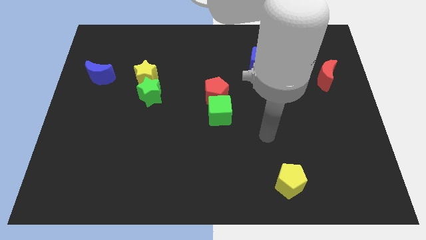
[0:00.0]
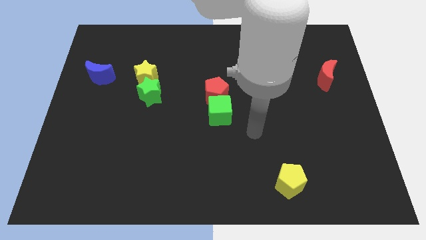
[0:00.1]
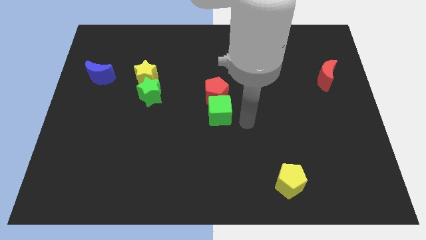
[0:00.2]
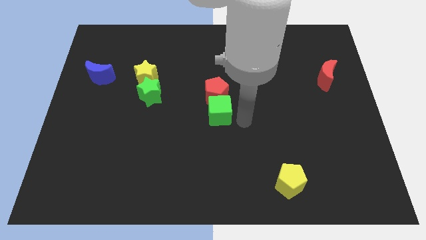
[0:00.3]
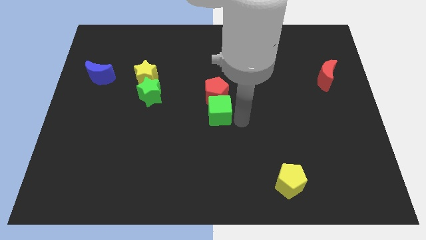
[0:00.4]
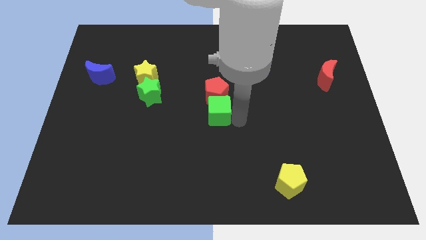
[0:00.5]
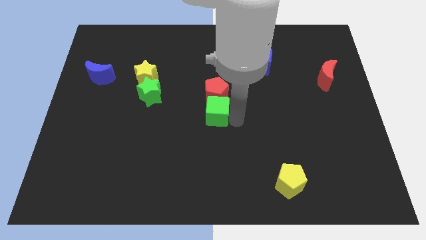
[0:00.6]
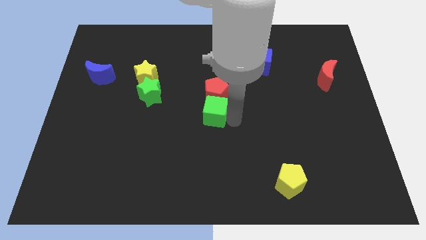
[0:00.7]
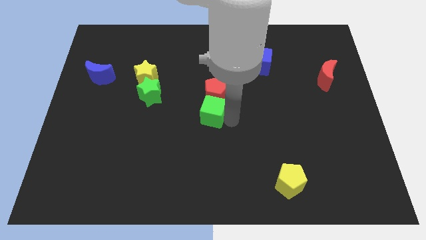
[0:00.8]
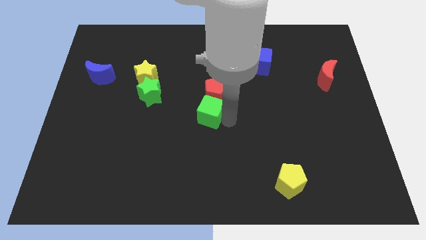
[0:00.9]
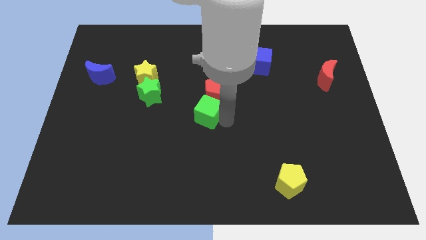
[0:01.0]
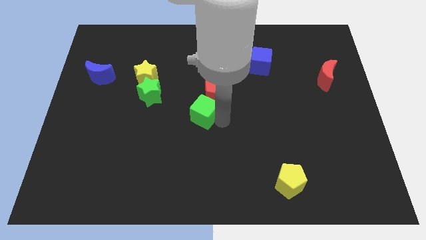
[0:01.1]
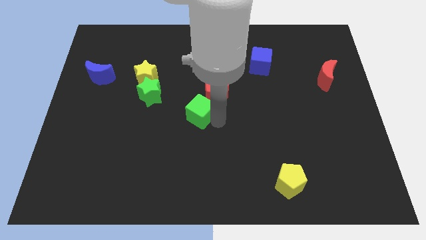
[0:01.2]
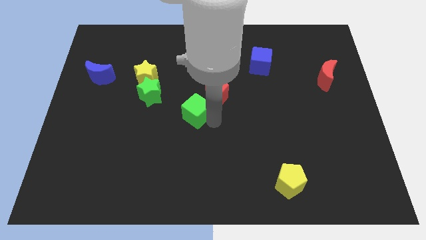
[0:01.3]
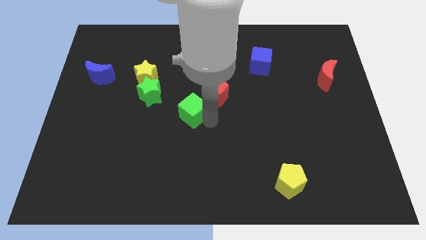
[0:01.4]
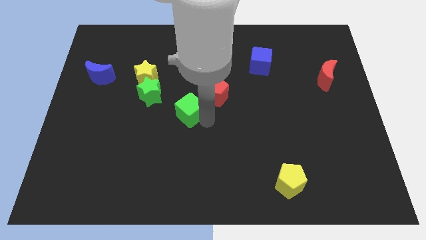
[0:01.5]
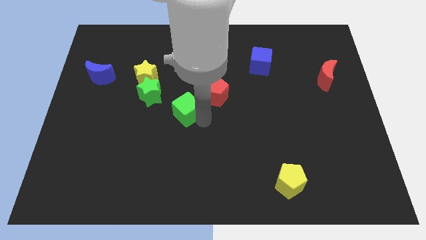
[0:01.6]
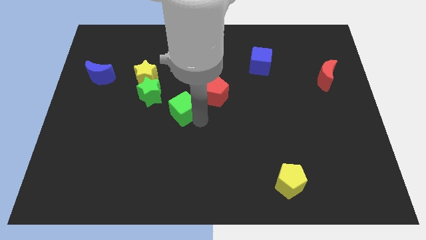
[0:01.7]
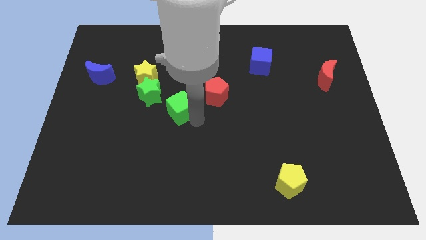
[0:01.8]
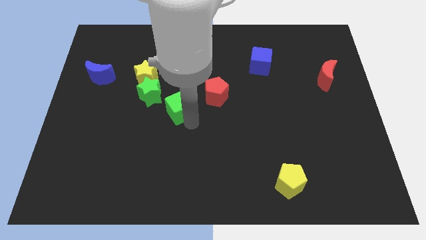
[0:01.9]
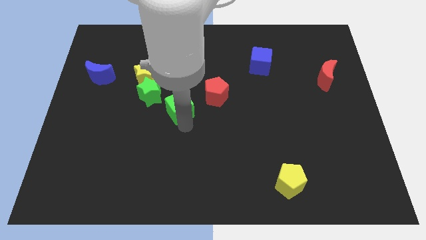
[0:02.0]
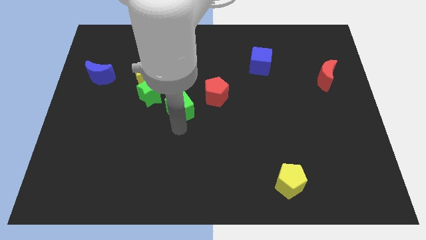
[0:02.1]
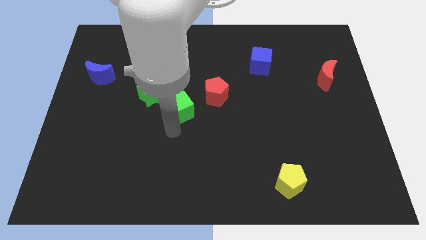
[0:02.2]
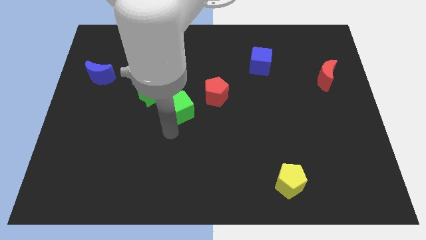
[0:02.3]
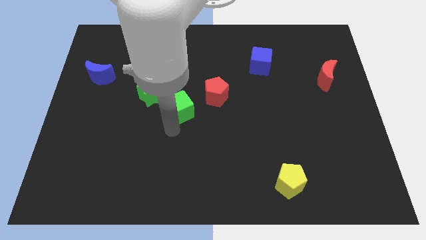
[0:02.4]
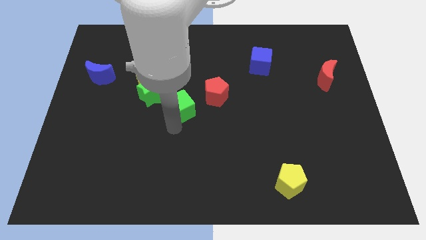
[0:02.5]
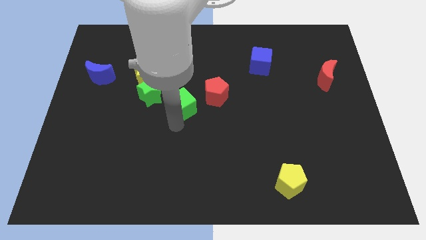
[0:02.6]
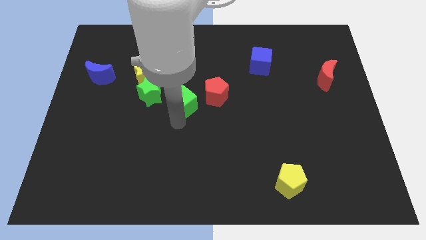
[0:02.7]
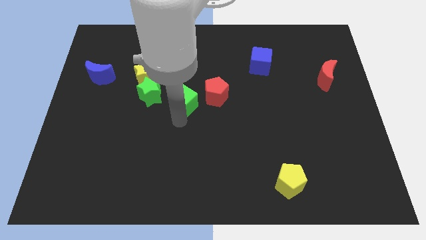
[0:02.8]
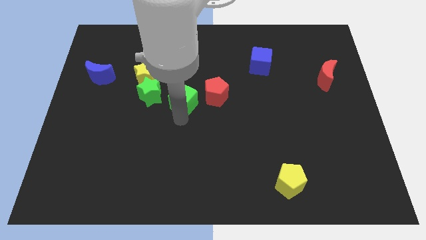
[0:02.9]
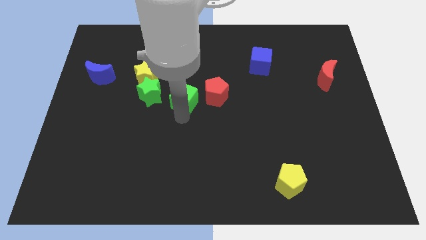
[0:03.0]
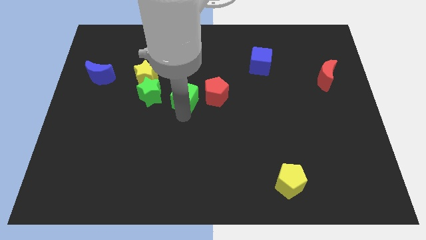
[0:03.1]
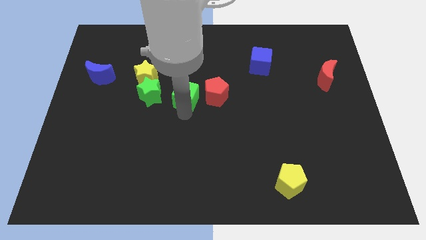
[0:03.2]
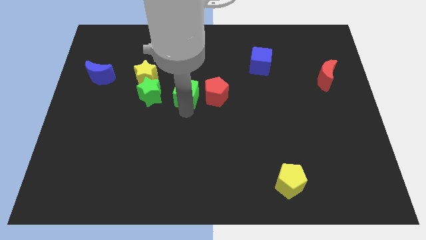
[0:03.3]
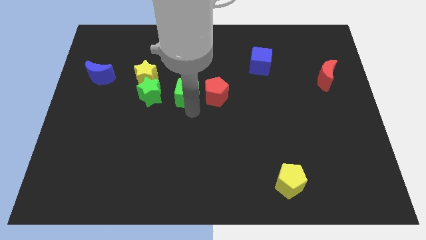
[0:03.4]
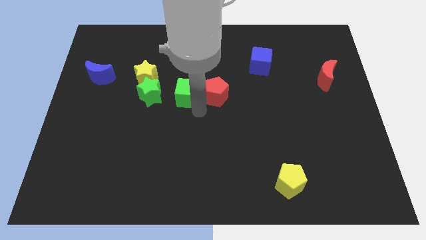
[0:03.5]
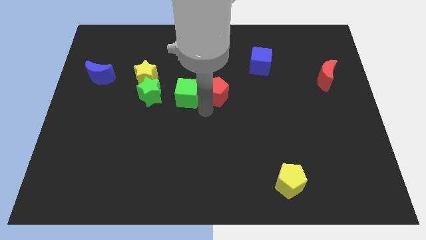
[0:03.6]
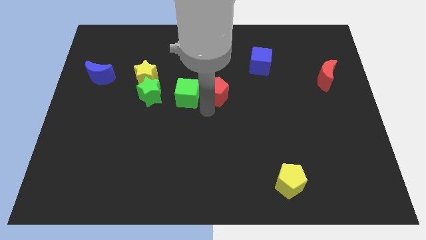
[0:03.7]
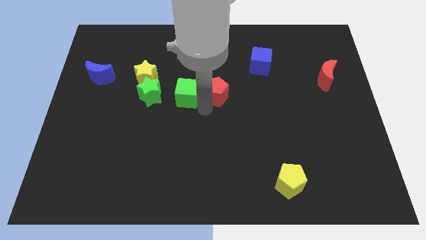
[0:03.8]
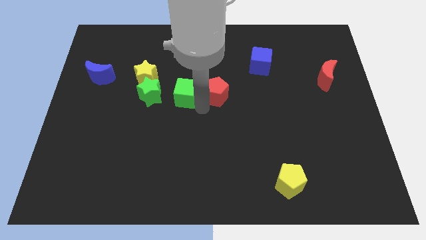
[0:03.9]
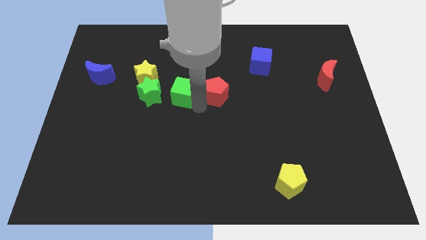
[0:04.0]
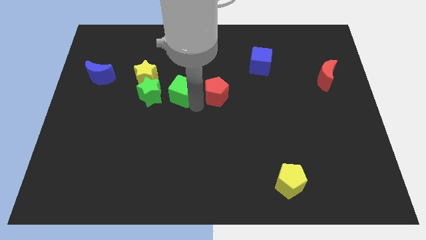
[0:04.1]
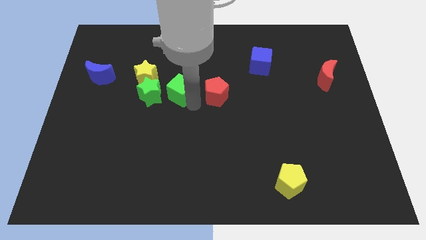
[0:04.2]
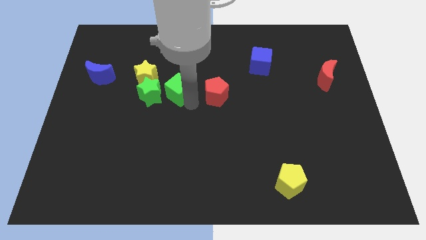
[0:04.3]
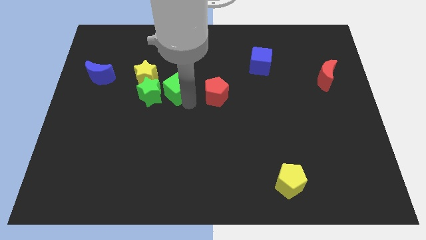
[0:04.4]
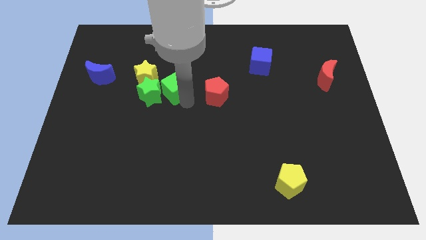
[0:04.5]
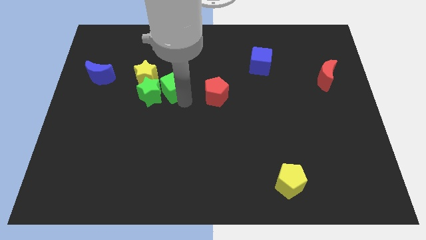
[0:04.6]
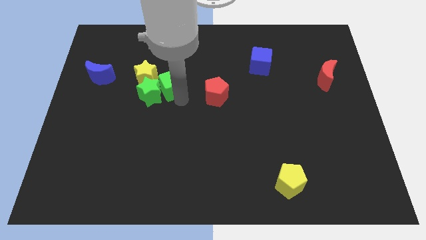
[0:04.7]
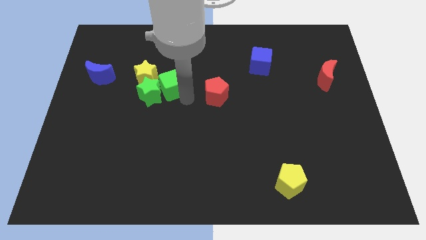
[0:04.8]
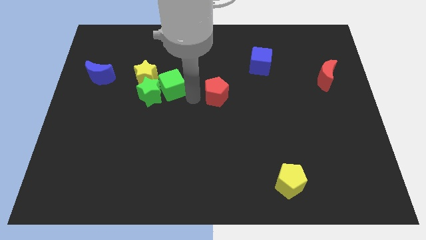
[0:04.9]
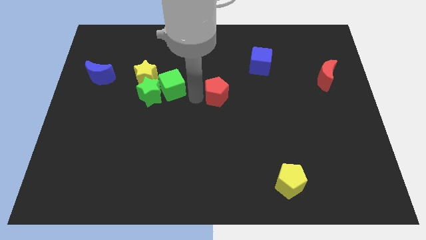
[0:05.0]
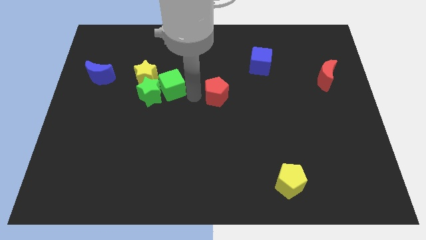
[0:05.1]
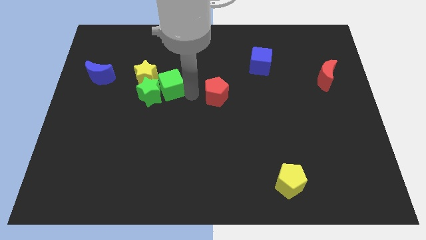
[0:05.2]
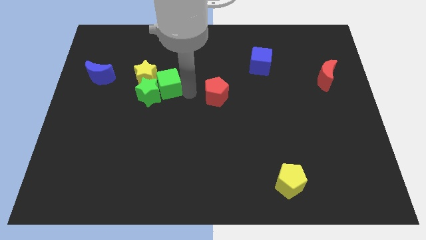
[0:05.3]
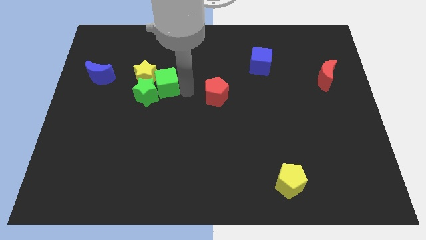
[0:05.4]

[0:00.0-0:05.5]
slide the green cube towards the yellow star

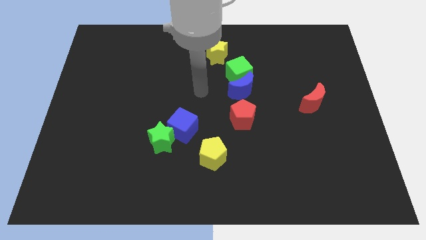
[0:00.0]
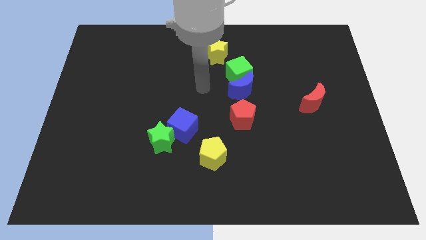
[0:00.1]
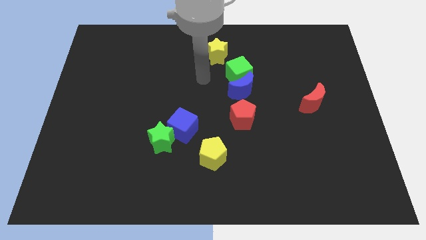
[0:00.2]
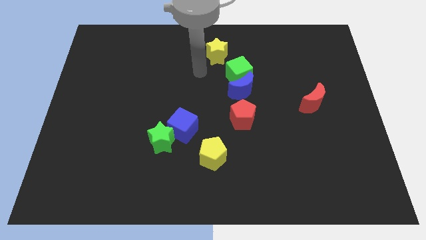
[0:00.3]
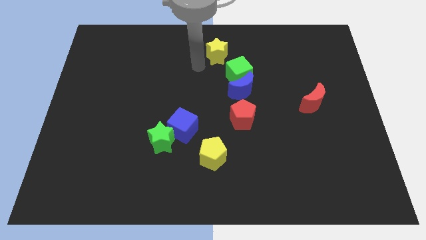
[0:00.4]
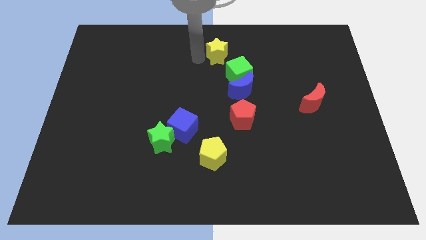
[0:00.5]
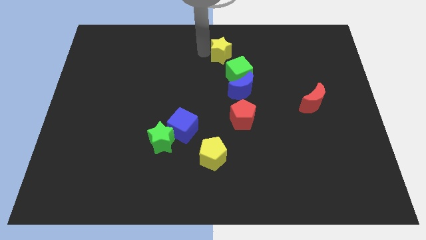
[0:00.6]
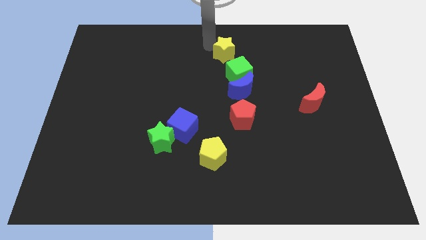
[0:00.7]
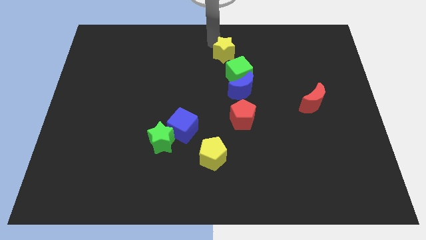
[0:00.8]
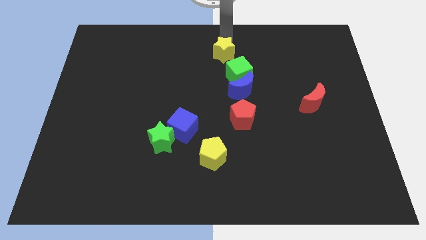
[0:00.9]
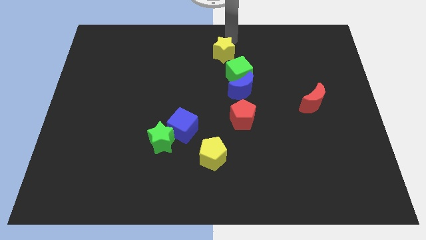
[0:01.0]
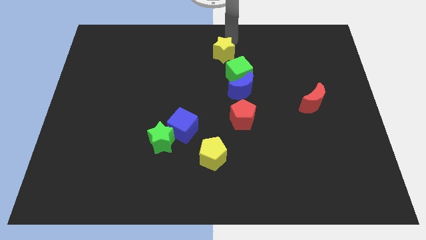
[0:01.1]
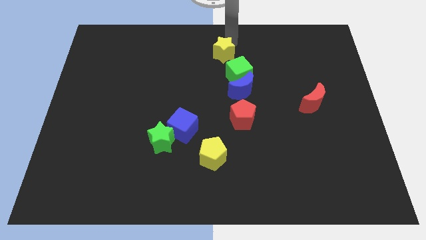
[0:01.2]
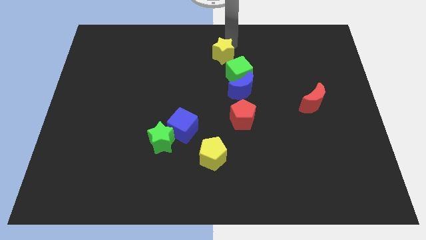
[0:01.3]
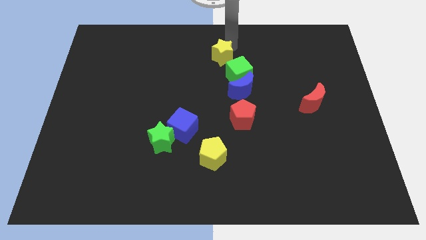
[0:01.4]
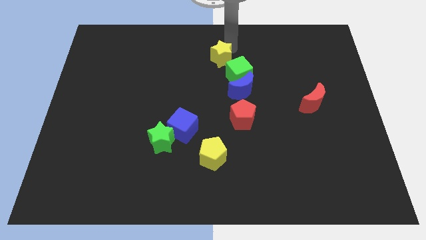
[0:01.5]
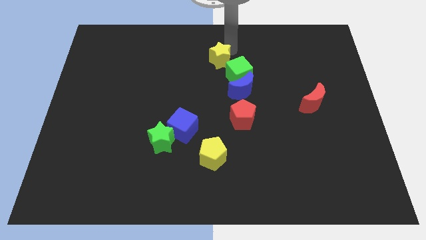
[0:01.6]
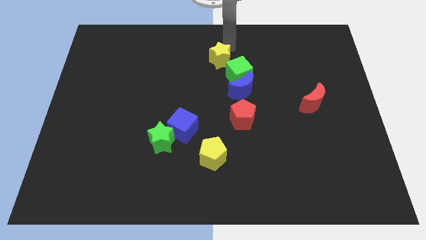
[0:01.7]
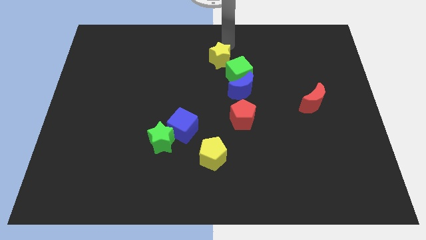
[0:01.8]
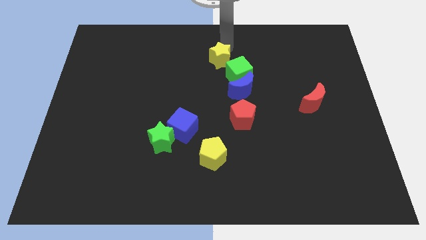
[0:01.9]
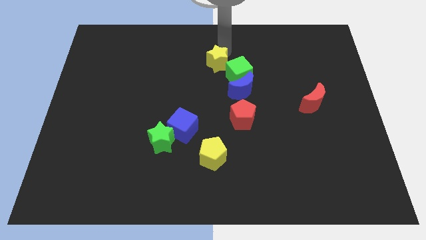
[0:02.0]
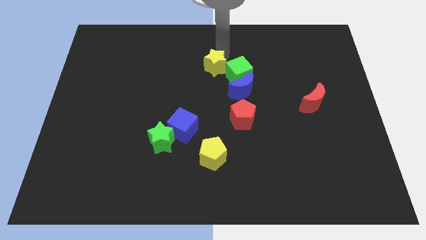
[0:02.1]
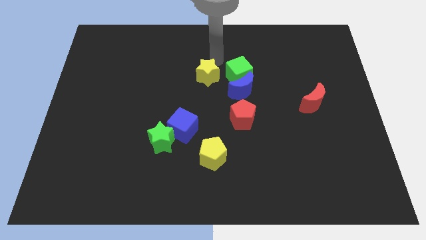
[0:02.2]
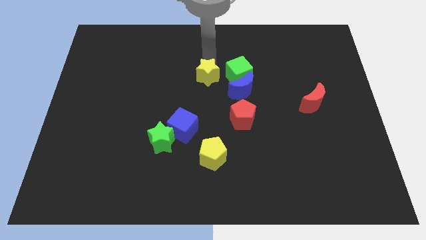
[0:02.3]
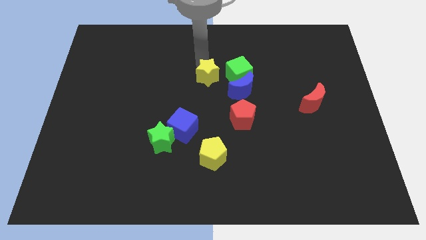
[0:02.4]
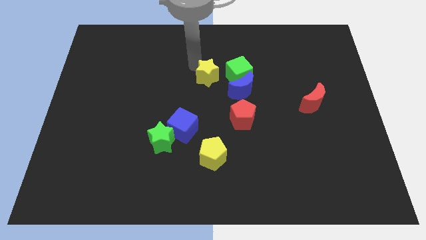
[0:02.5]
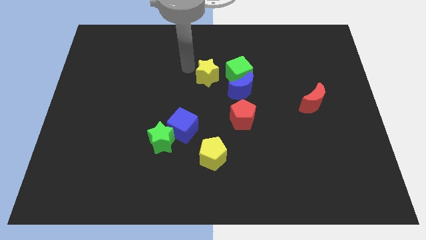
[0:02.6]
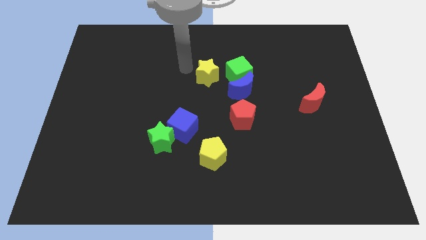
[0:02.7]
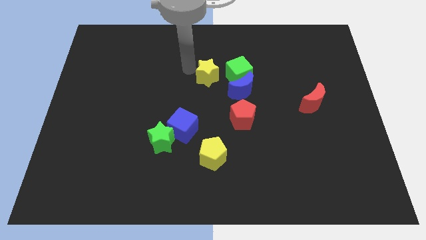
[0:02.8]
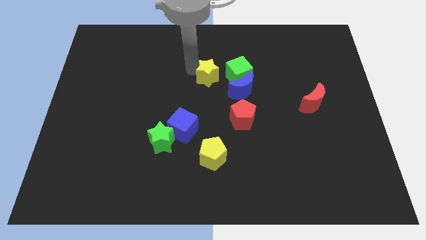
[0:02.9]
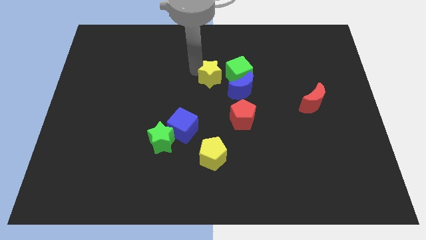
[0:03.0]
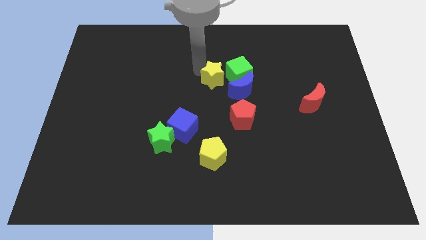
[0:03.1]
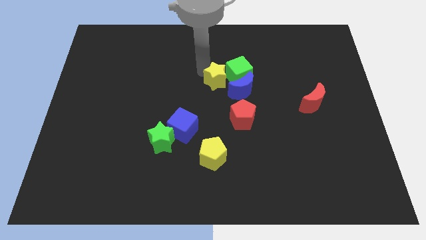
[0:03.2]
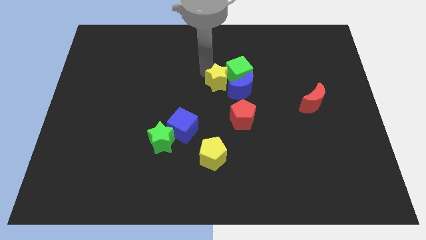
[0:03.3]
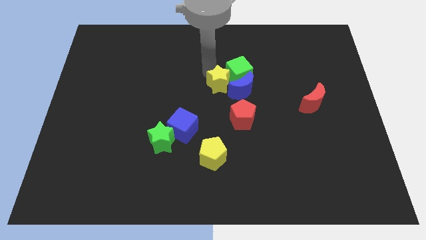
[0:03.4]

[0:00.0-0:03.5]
put the yellow star towards the blue moon
